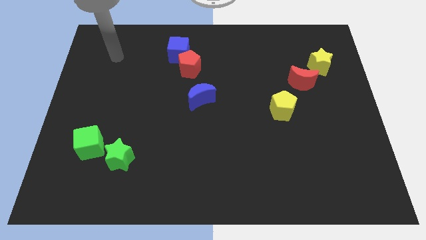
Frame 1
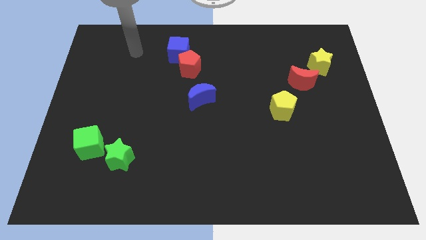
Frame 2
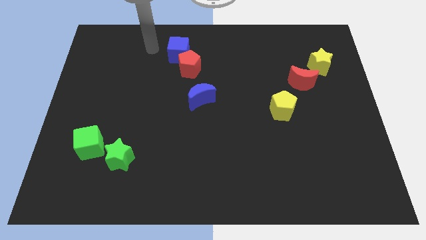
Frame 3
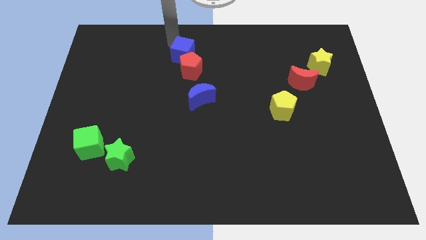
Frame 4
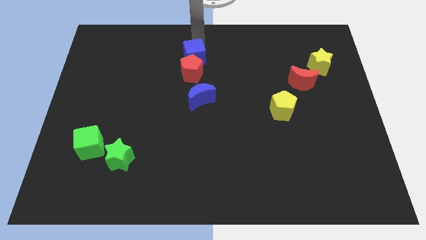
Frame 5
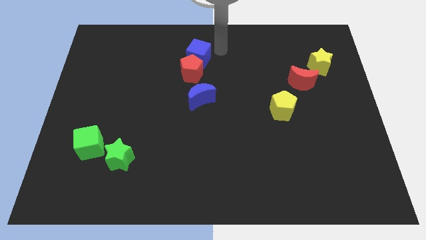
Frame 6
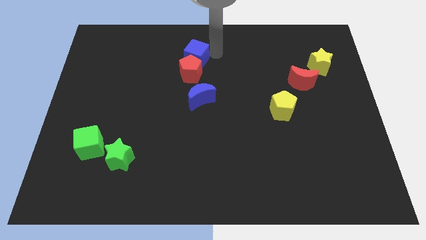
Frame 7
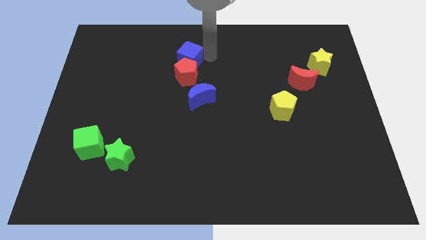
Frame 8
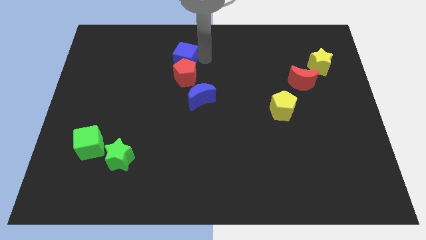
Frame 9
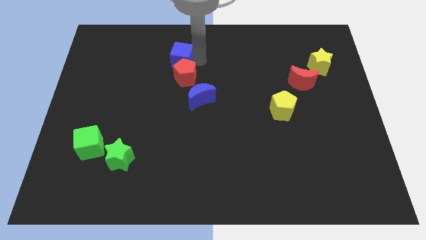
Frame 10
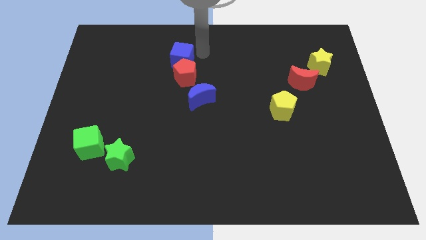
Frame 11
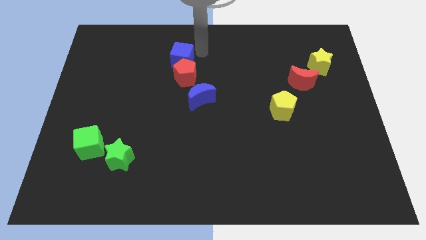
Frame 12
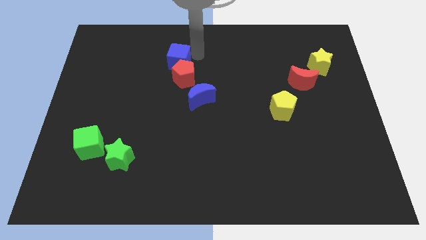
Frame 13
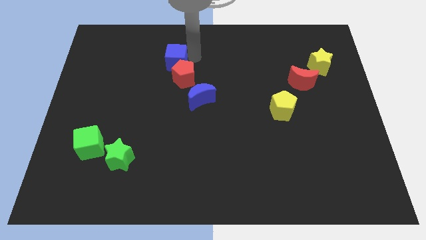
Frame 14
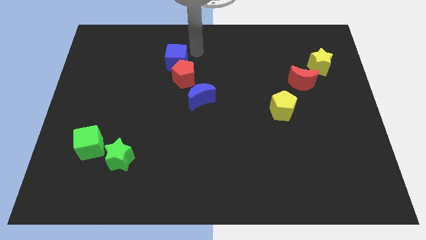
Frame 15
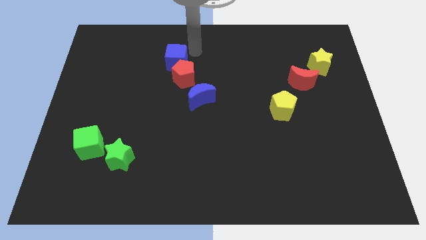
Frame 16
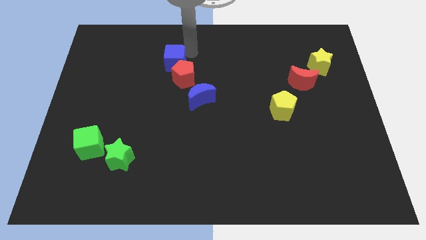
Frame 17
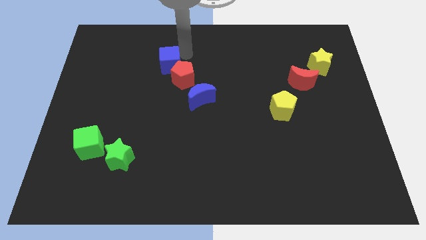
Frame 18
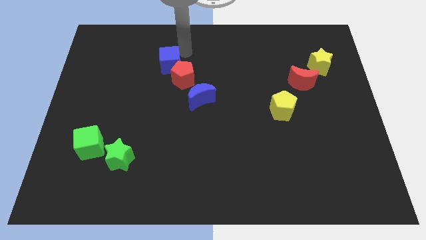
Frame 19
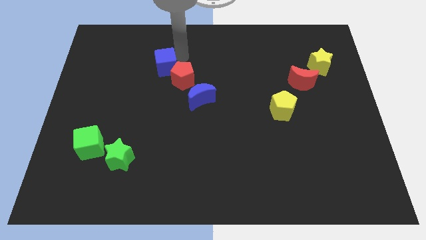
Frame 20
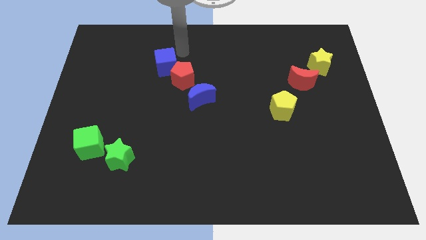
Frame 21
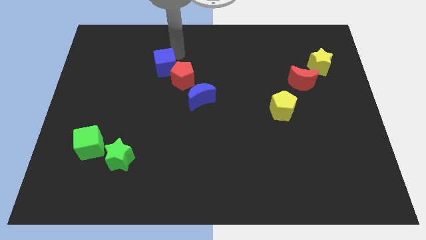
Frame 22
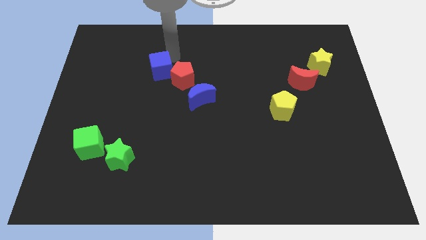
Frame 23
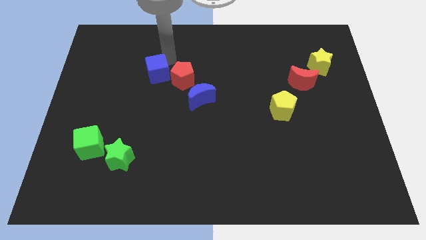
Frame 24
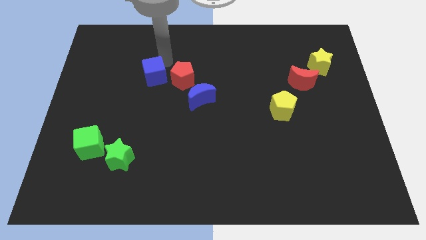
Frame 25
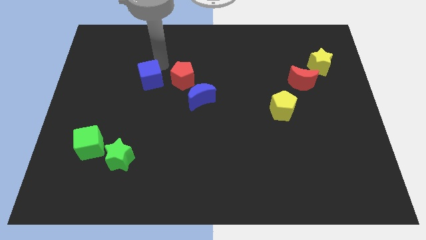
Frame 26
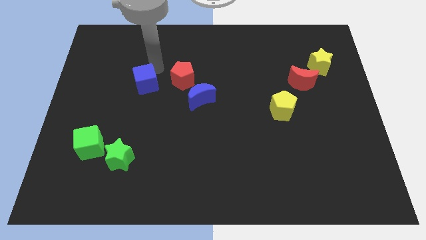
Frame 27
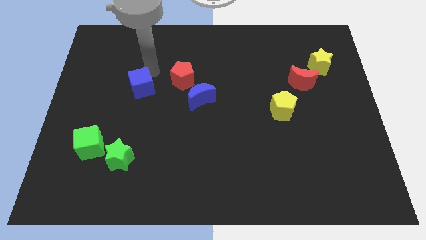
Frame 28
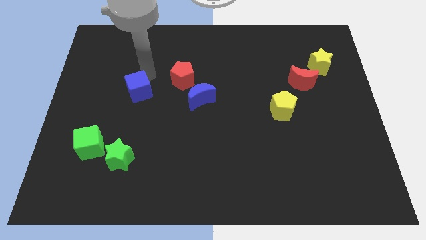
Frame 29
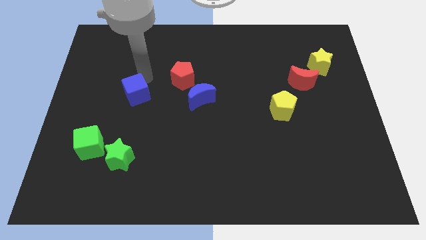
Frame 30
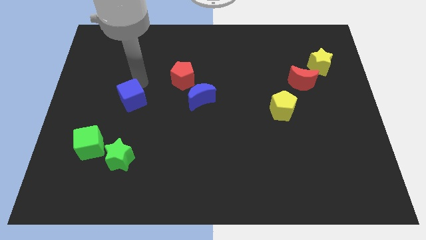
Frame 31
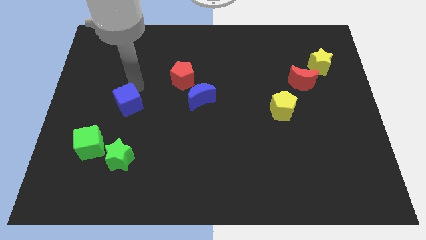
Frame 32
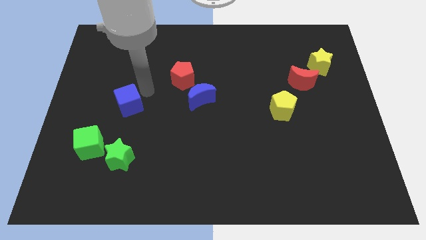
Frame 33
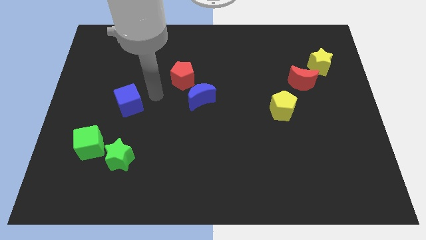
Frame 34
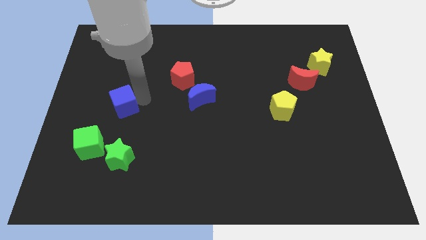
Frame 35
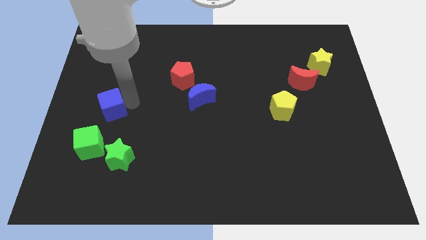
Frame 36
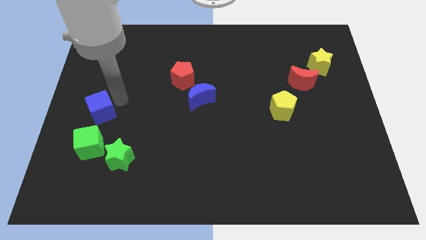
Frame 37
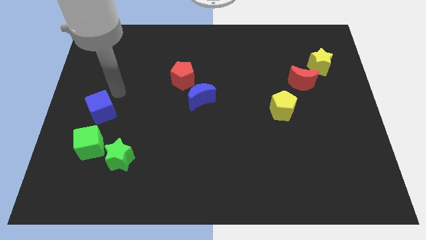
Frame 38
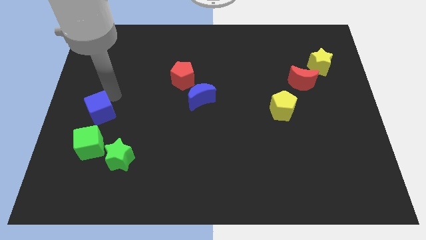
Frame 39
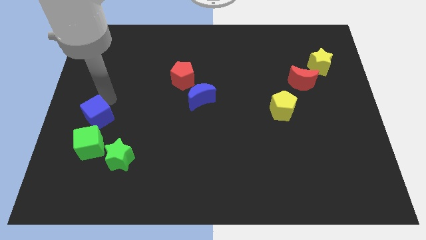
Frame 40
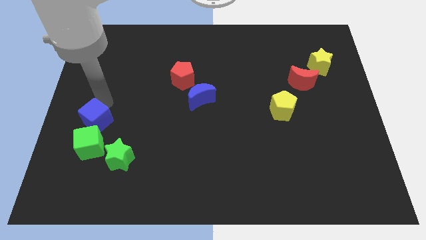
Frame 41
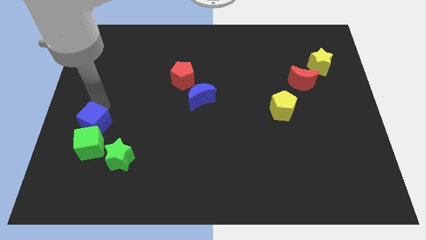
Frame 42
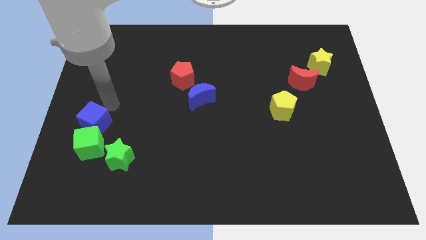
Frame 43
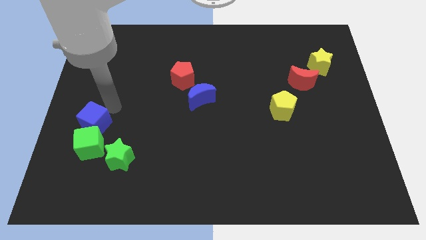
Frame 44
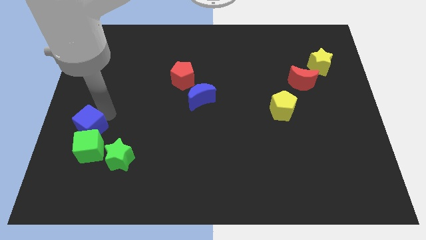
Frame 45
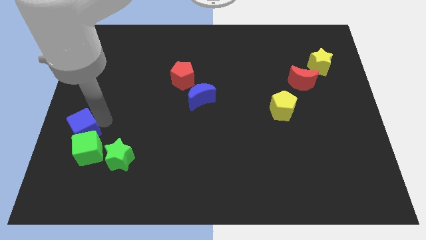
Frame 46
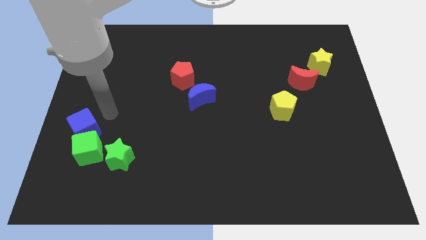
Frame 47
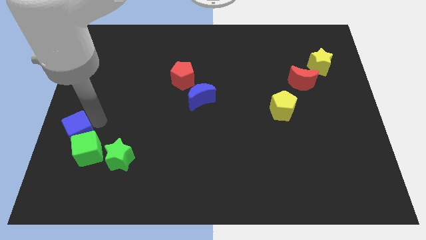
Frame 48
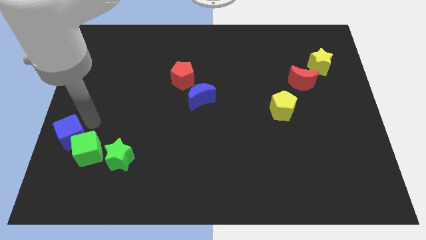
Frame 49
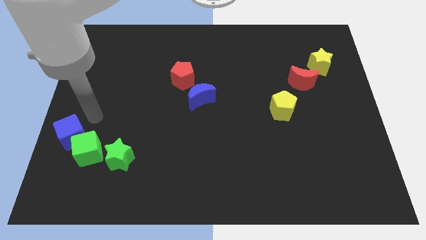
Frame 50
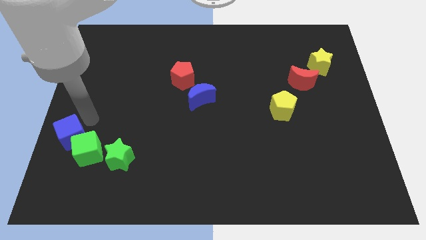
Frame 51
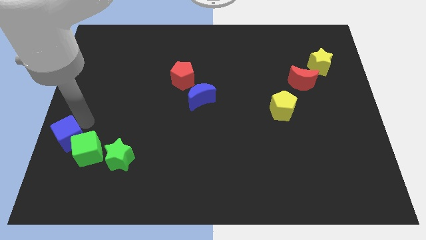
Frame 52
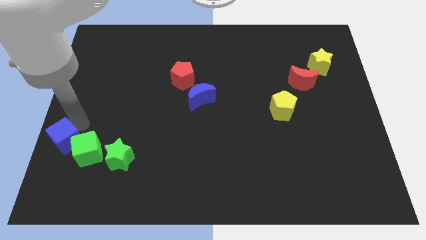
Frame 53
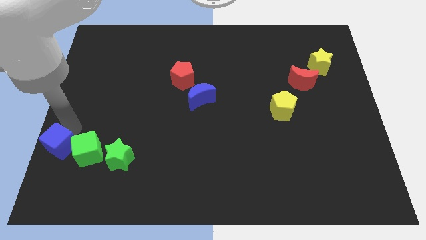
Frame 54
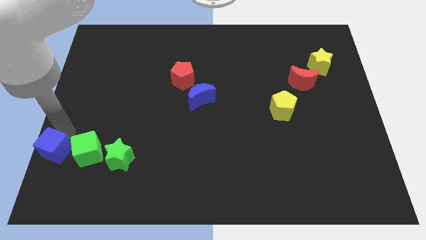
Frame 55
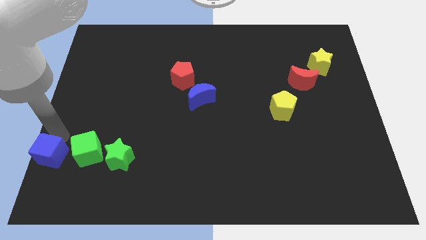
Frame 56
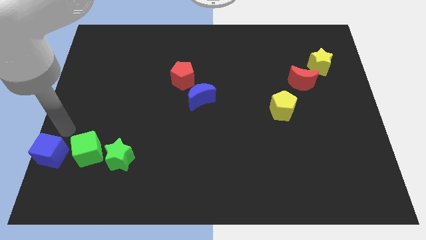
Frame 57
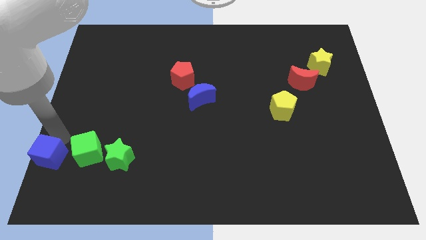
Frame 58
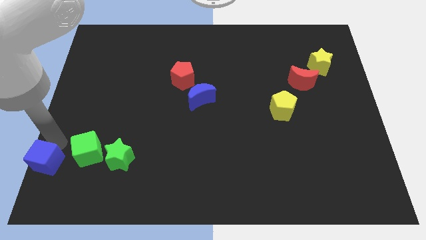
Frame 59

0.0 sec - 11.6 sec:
push the blue cube to the lower left corner

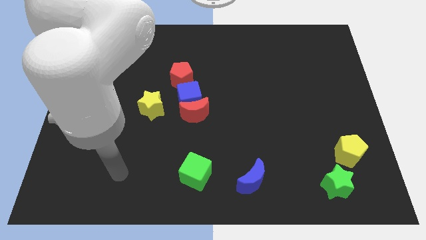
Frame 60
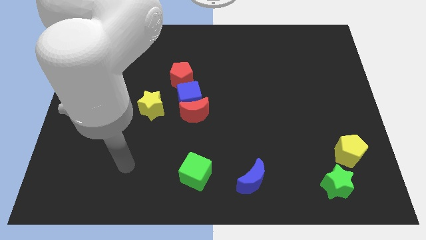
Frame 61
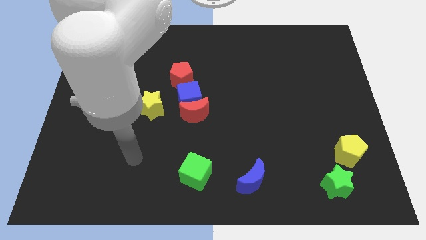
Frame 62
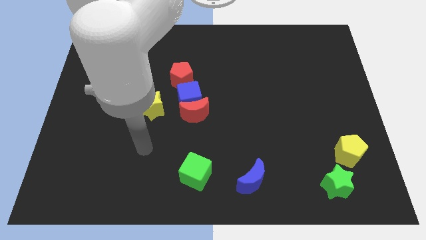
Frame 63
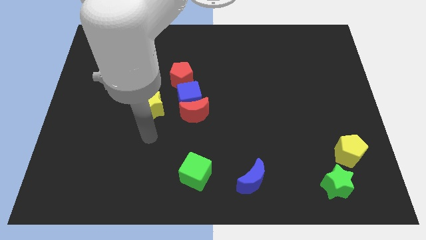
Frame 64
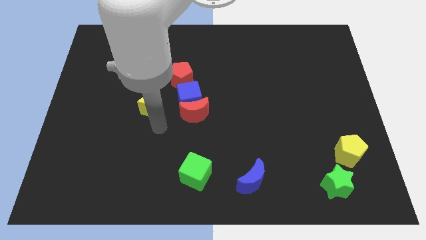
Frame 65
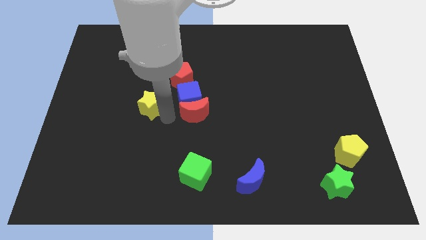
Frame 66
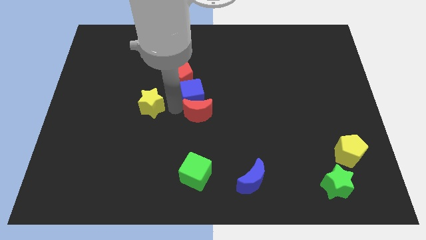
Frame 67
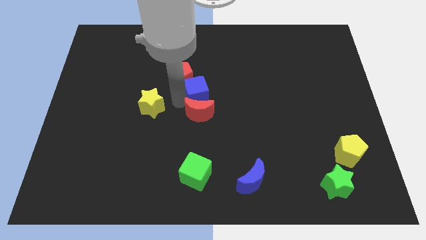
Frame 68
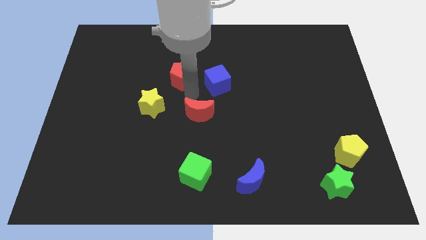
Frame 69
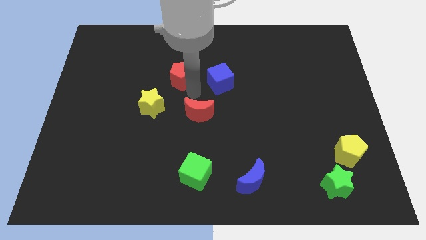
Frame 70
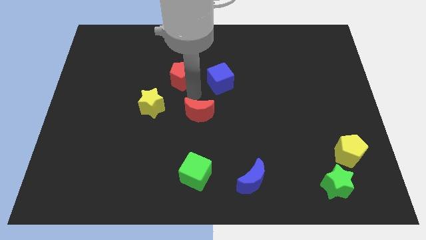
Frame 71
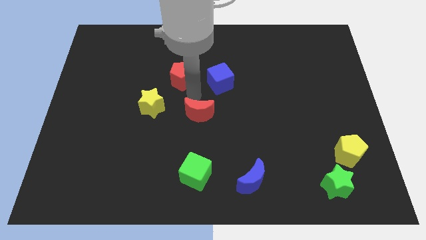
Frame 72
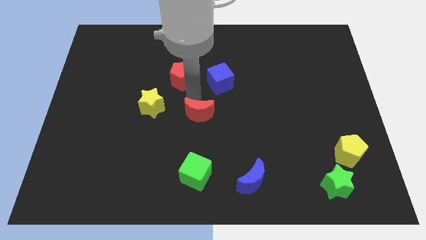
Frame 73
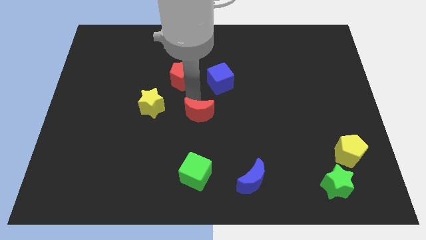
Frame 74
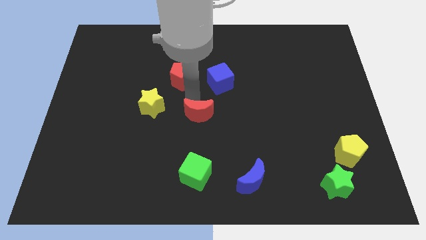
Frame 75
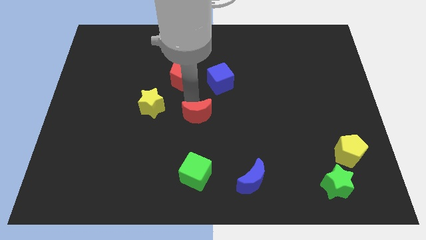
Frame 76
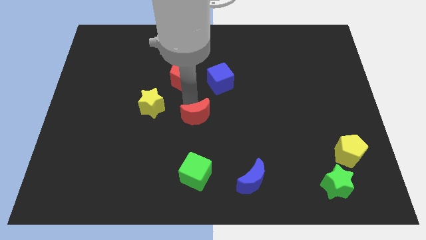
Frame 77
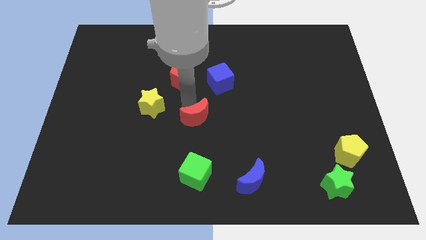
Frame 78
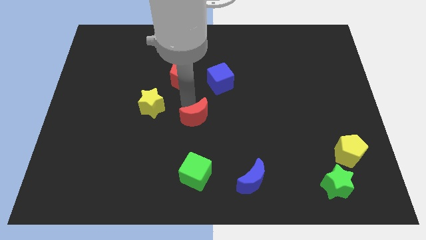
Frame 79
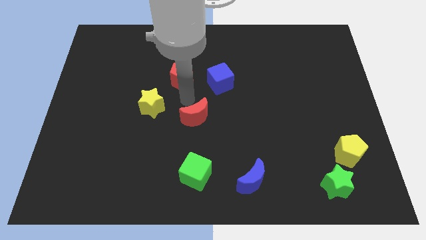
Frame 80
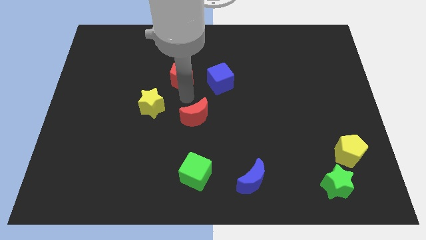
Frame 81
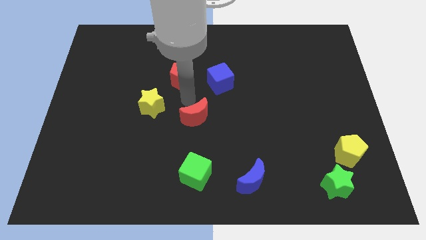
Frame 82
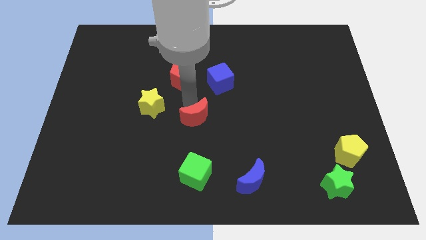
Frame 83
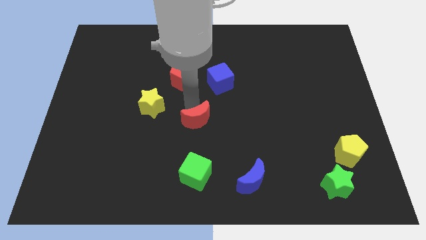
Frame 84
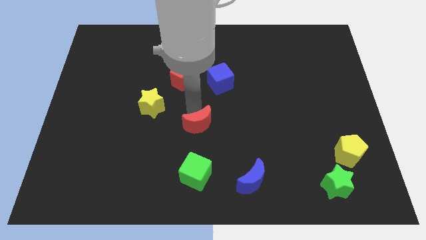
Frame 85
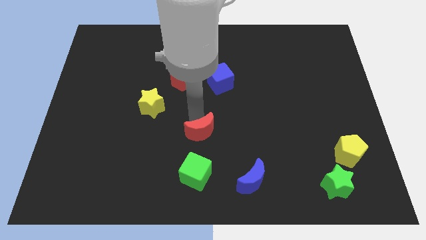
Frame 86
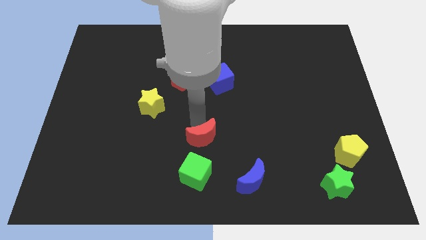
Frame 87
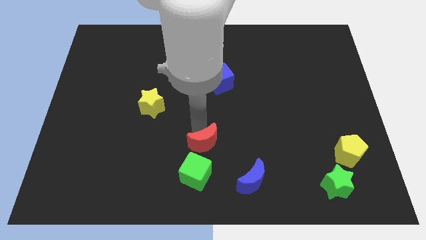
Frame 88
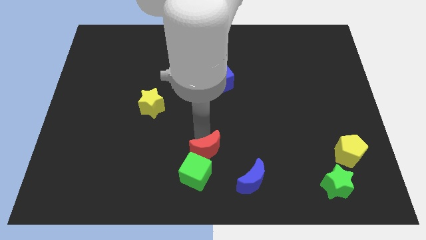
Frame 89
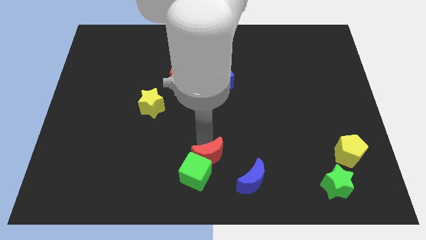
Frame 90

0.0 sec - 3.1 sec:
slide the red moon to the bottom side
